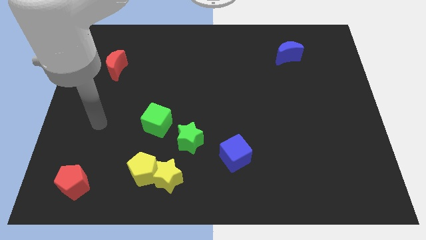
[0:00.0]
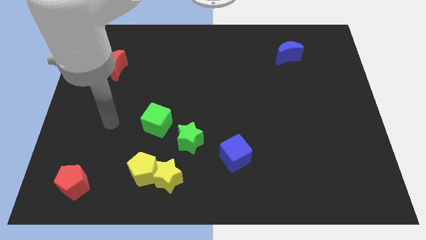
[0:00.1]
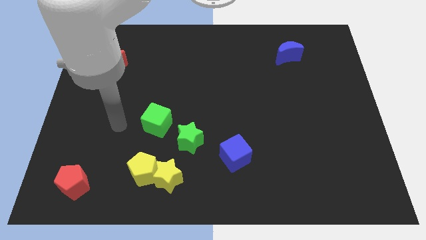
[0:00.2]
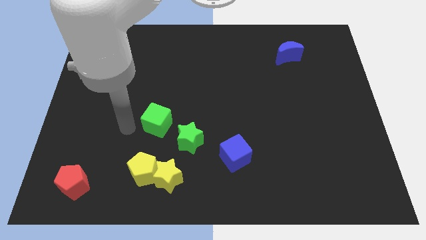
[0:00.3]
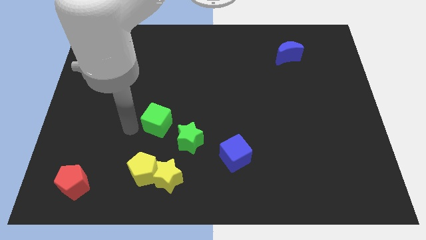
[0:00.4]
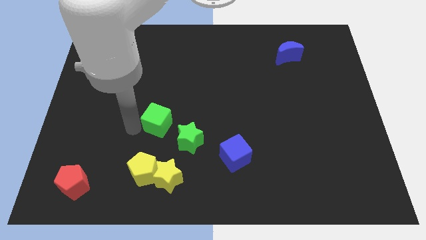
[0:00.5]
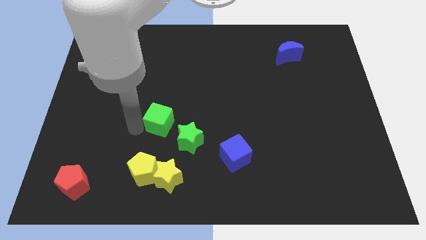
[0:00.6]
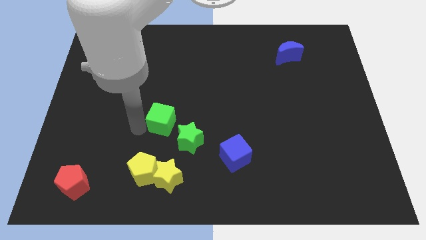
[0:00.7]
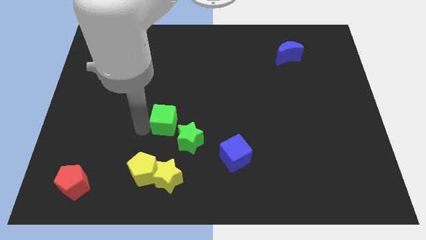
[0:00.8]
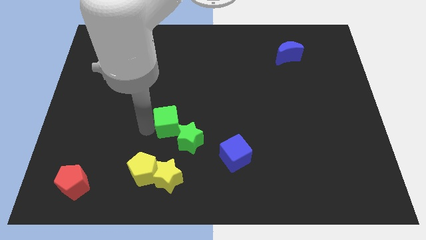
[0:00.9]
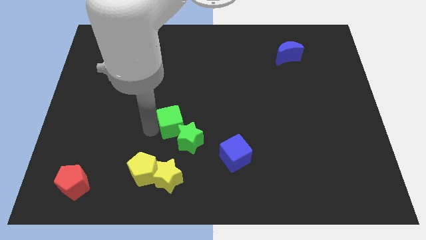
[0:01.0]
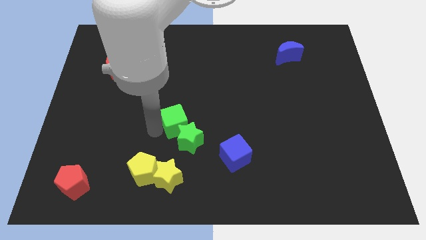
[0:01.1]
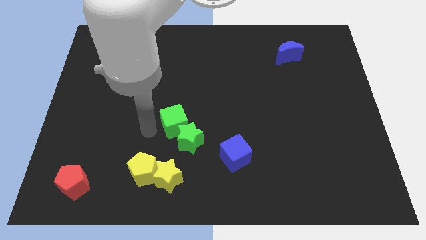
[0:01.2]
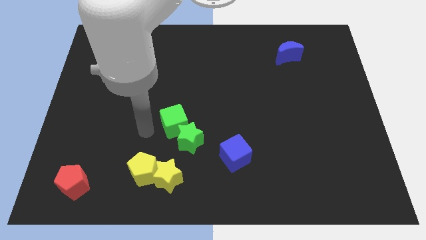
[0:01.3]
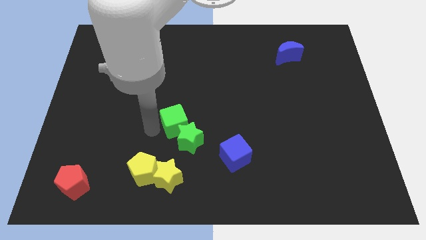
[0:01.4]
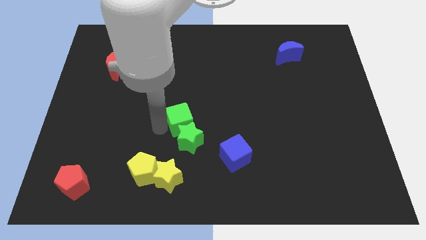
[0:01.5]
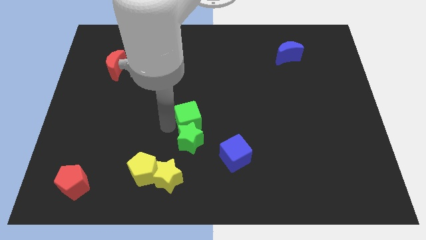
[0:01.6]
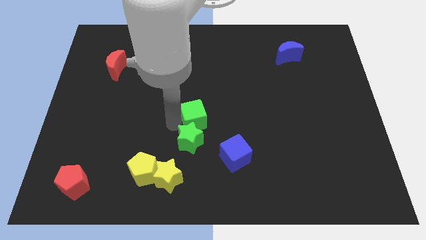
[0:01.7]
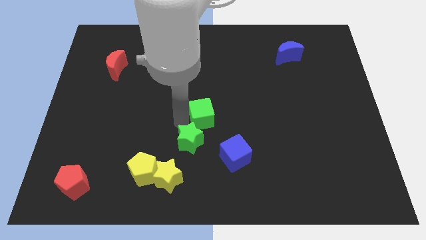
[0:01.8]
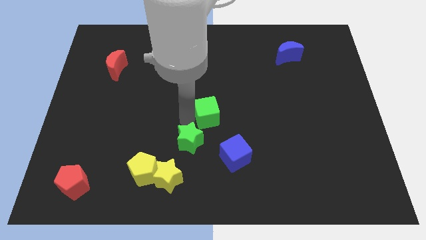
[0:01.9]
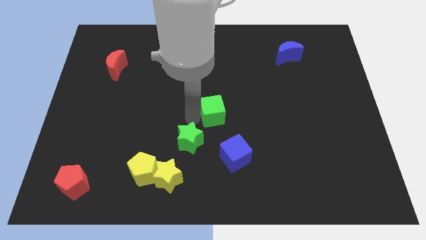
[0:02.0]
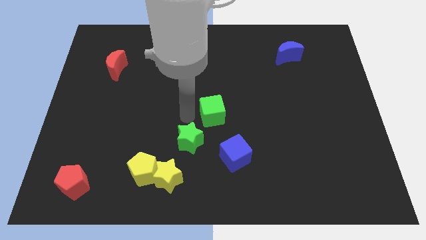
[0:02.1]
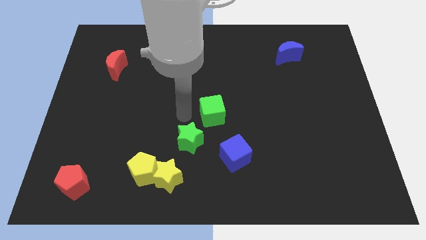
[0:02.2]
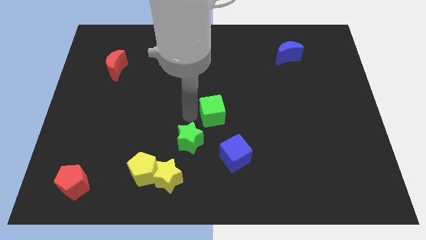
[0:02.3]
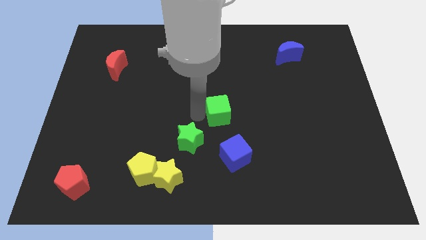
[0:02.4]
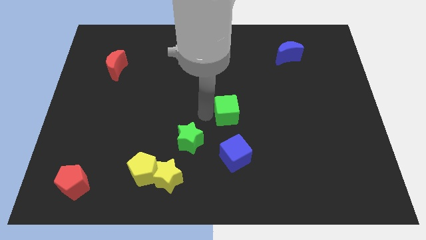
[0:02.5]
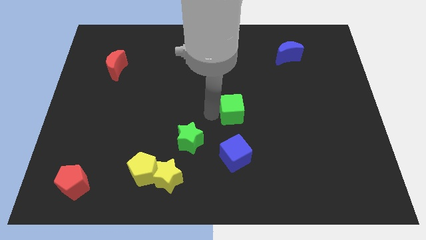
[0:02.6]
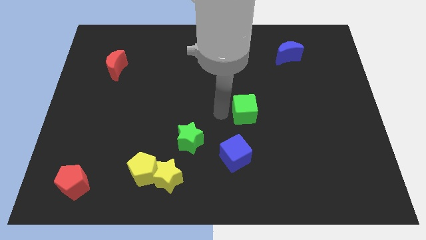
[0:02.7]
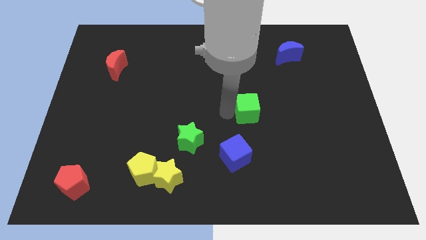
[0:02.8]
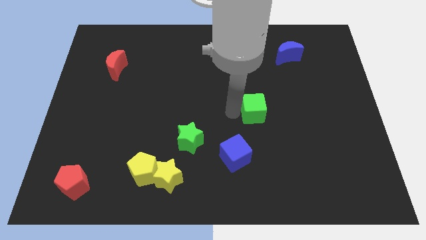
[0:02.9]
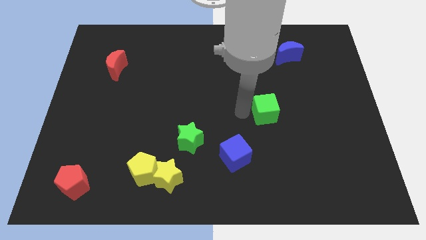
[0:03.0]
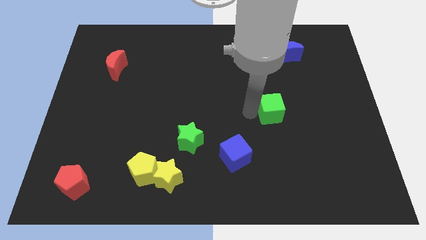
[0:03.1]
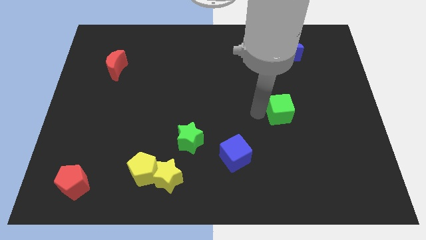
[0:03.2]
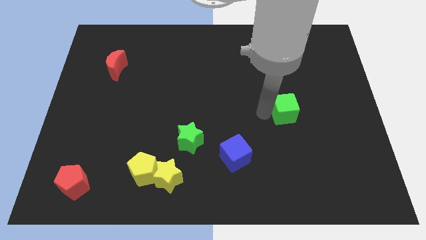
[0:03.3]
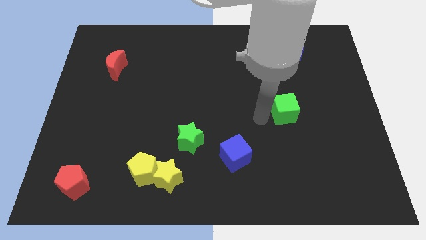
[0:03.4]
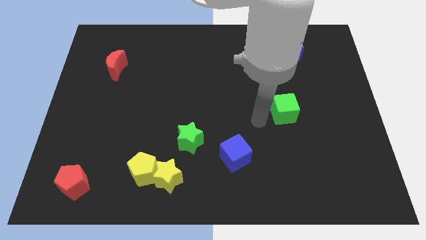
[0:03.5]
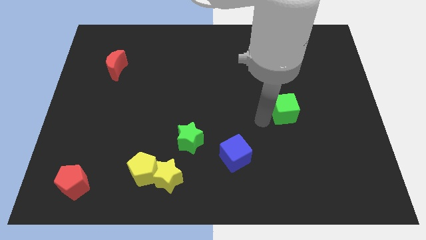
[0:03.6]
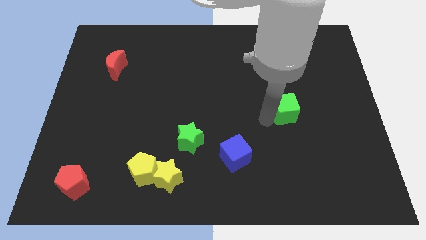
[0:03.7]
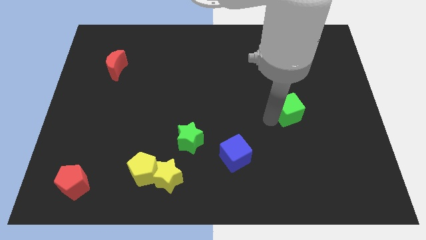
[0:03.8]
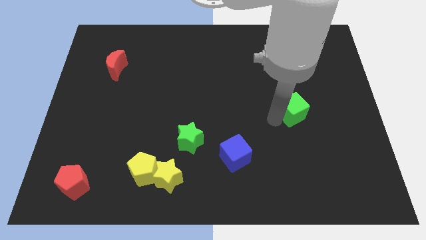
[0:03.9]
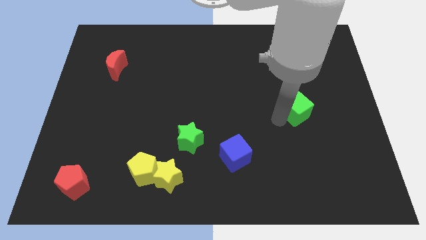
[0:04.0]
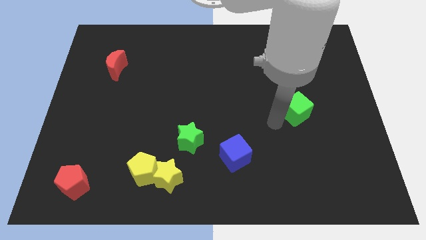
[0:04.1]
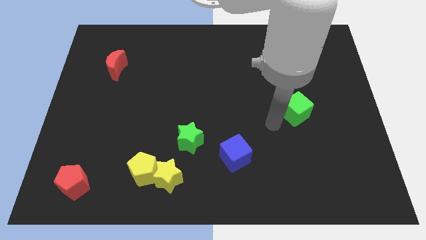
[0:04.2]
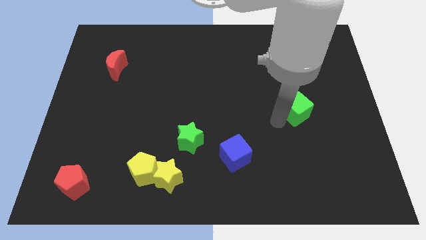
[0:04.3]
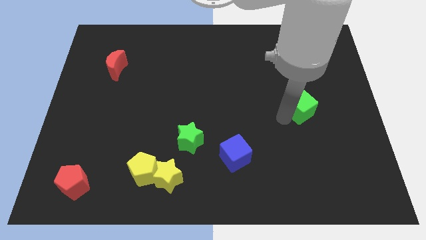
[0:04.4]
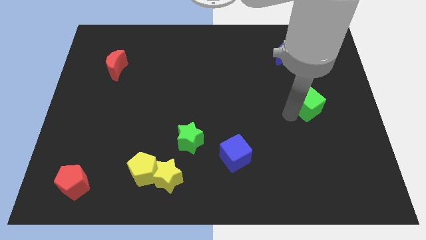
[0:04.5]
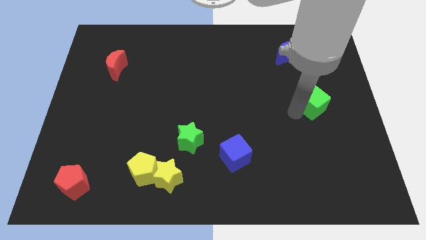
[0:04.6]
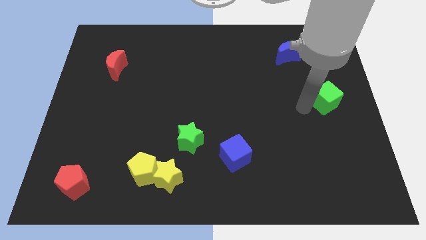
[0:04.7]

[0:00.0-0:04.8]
put the green cube to the right side of the board

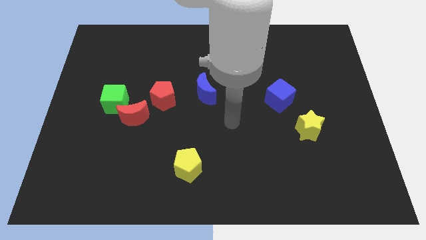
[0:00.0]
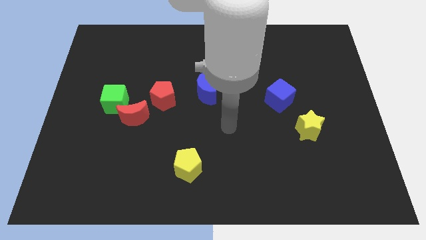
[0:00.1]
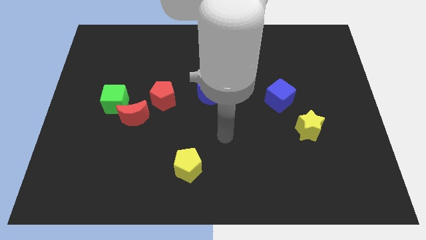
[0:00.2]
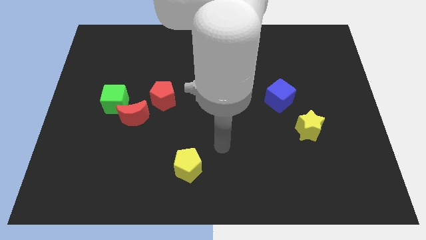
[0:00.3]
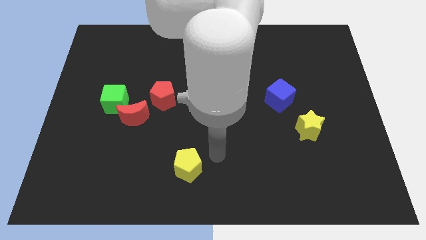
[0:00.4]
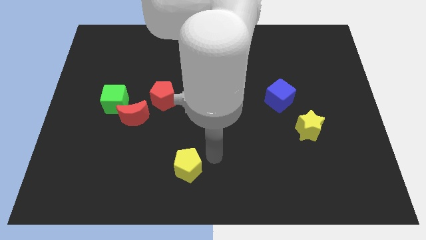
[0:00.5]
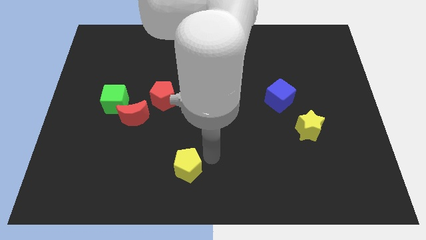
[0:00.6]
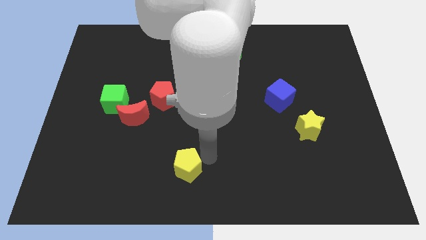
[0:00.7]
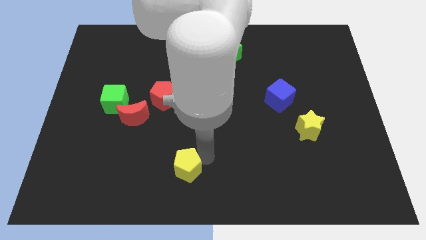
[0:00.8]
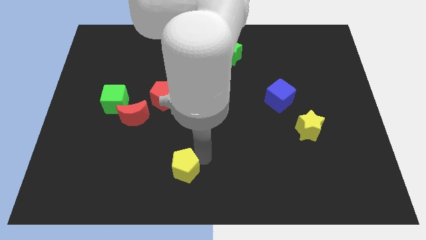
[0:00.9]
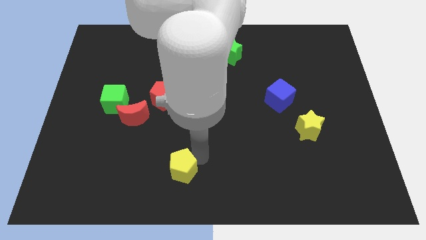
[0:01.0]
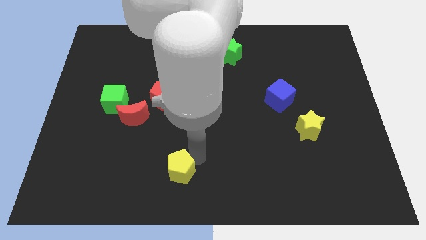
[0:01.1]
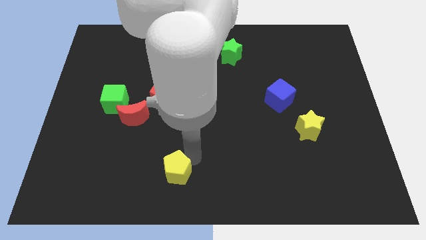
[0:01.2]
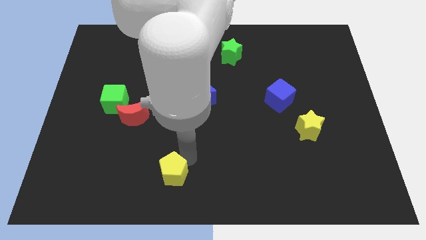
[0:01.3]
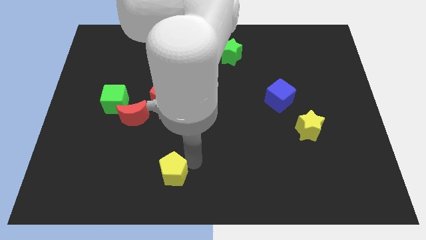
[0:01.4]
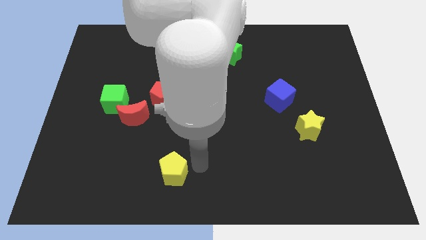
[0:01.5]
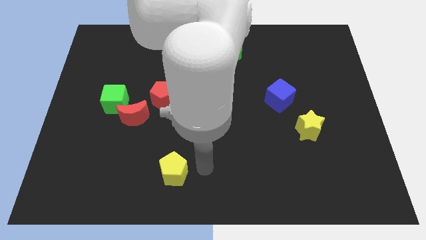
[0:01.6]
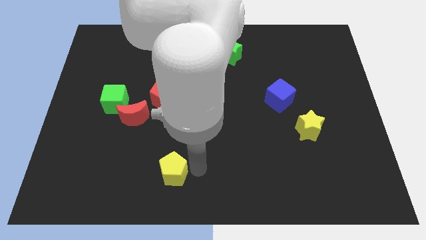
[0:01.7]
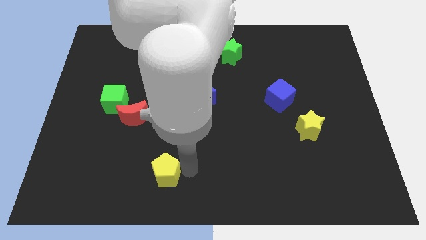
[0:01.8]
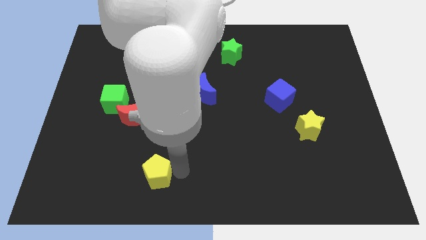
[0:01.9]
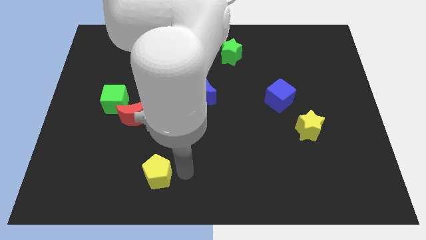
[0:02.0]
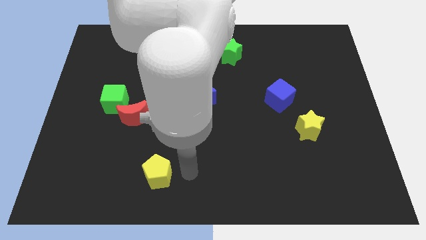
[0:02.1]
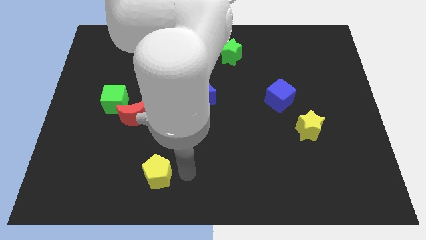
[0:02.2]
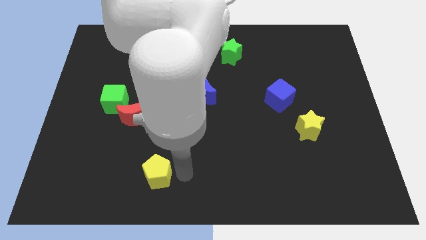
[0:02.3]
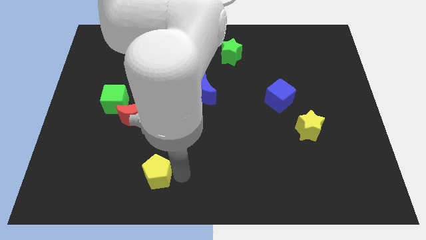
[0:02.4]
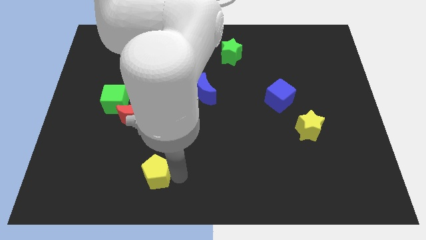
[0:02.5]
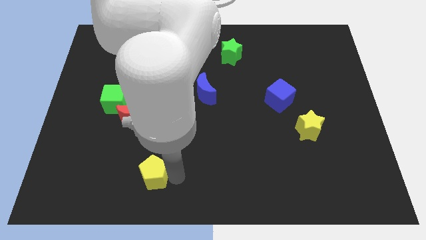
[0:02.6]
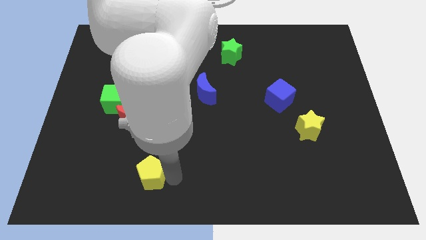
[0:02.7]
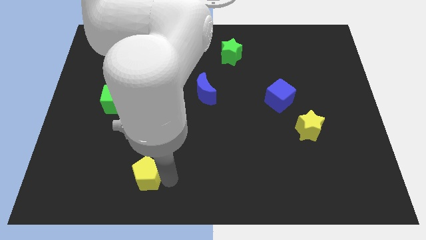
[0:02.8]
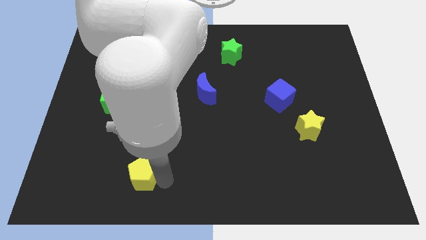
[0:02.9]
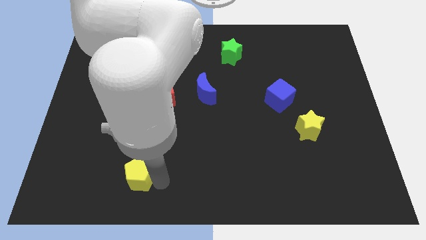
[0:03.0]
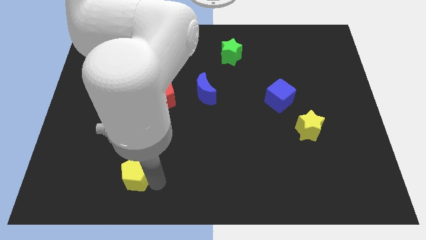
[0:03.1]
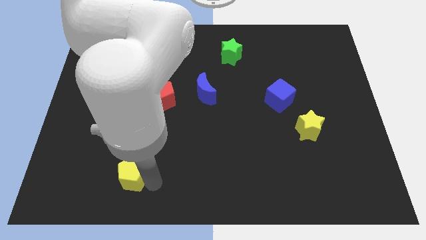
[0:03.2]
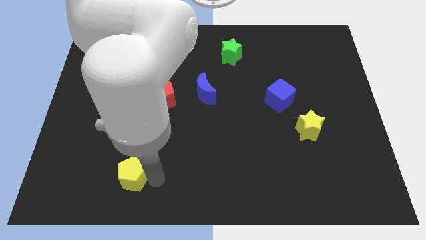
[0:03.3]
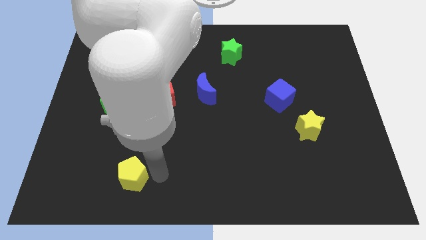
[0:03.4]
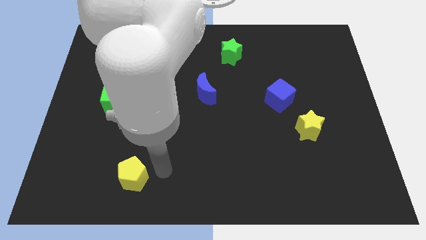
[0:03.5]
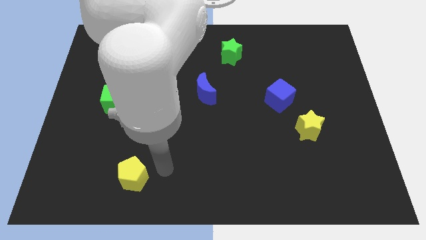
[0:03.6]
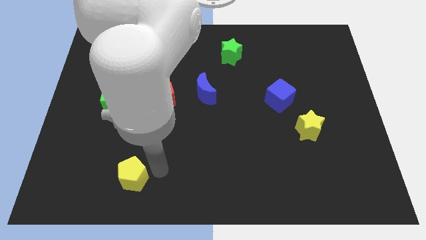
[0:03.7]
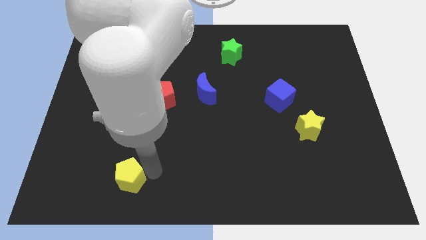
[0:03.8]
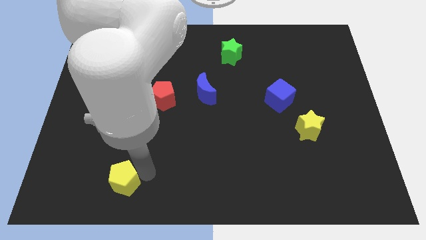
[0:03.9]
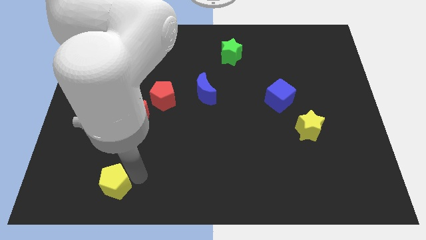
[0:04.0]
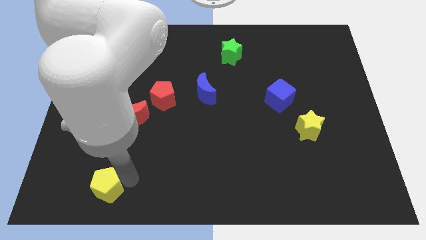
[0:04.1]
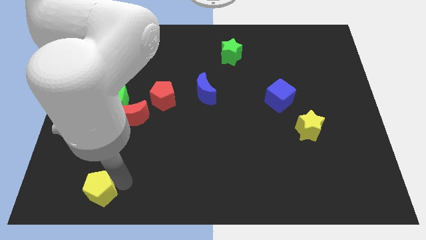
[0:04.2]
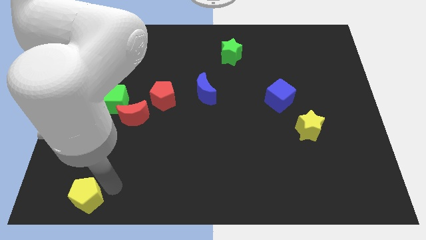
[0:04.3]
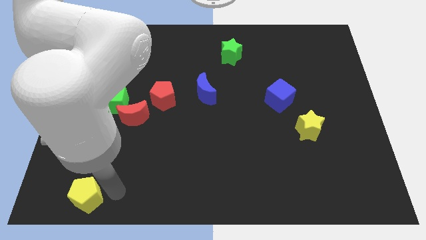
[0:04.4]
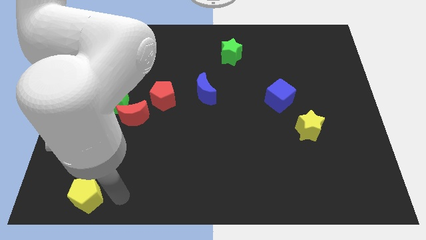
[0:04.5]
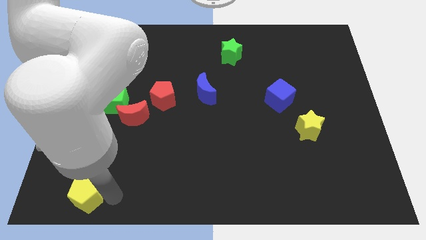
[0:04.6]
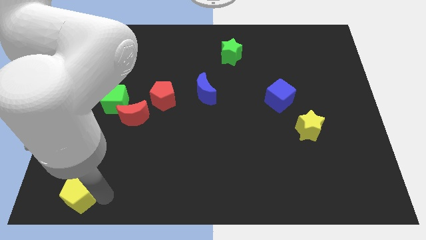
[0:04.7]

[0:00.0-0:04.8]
slide the yellow pentagon to the lower left corner
